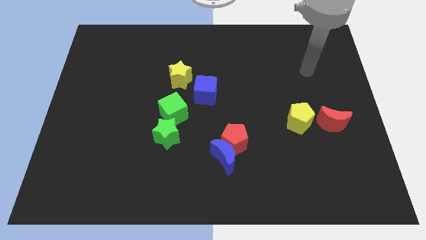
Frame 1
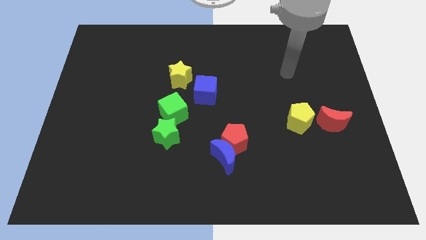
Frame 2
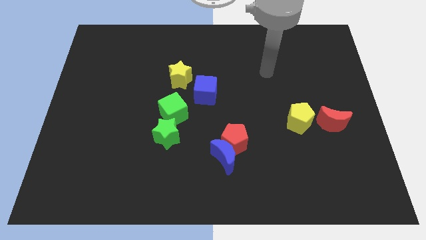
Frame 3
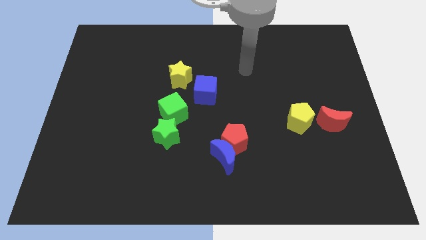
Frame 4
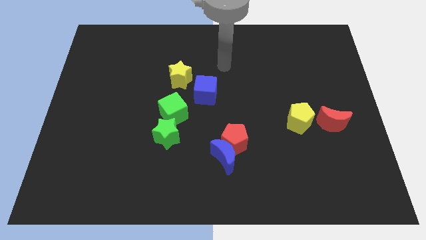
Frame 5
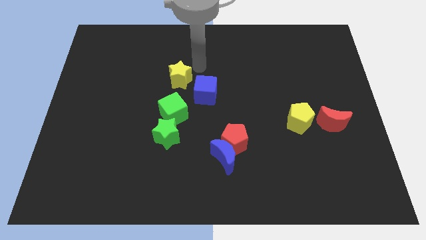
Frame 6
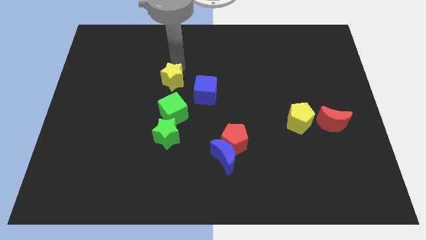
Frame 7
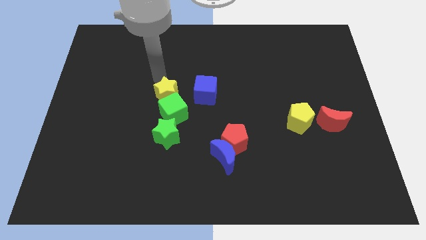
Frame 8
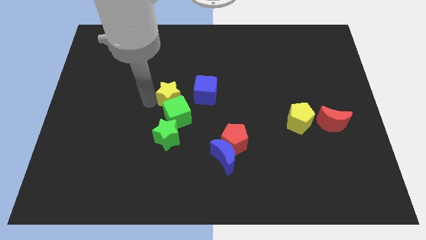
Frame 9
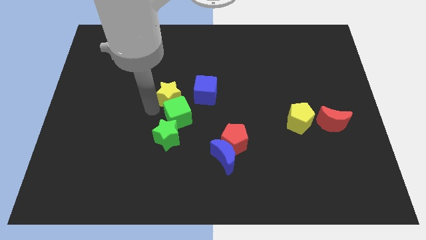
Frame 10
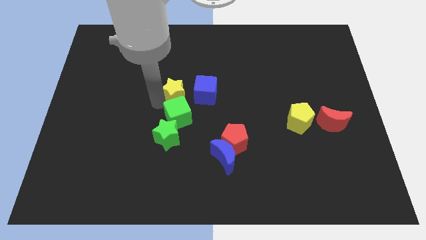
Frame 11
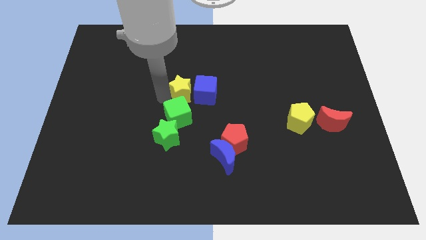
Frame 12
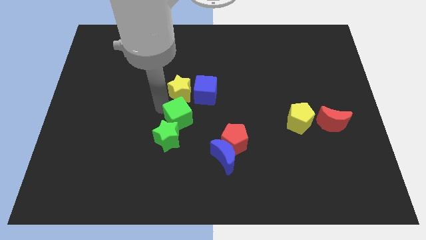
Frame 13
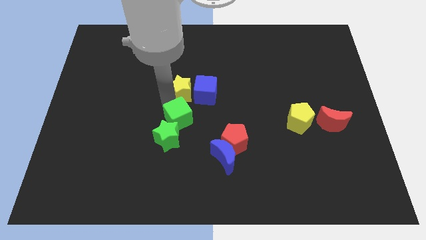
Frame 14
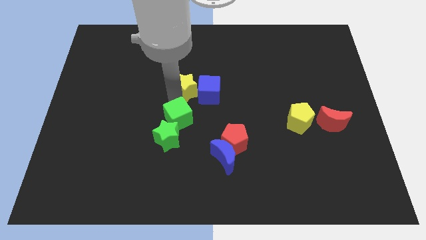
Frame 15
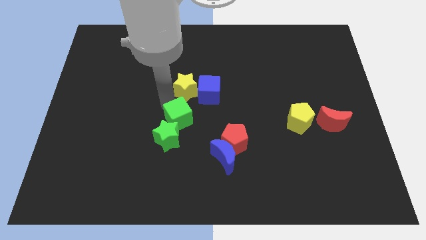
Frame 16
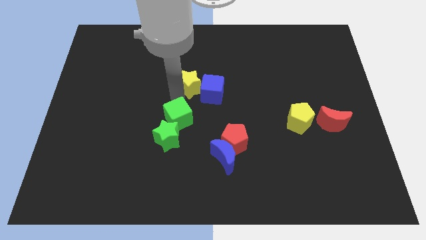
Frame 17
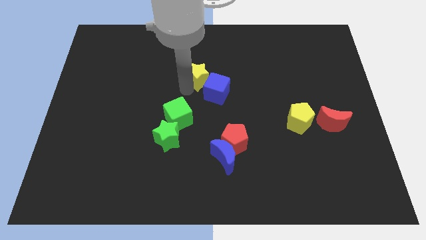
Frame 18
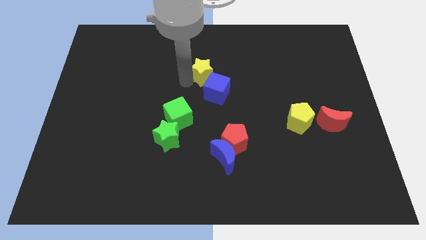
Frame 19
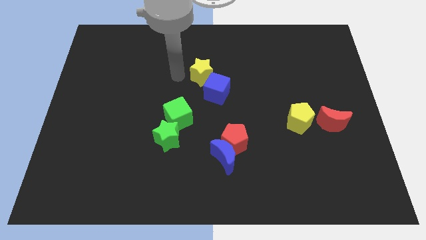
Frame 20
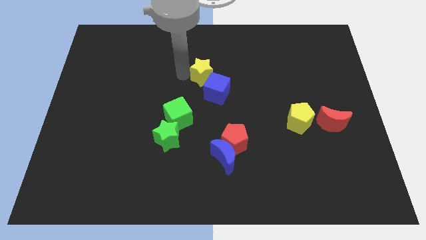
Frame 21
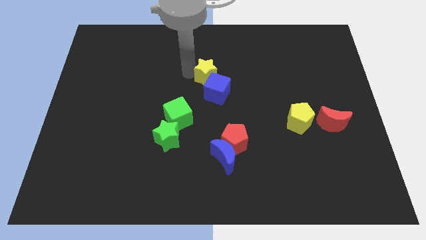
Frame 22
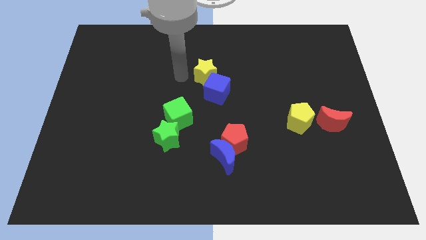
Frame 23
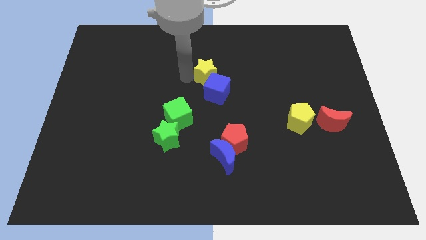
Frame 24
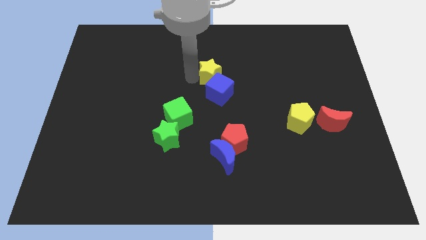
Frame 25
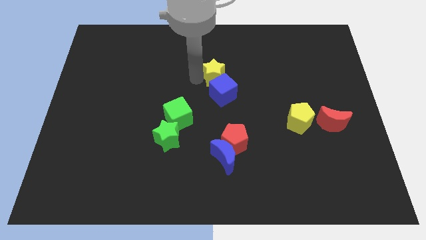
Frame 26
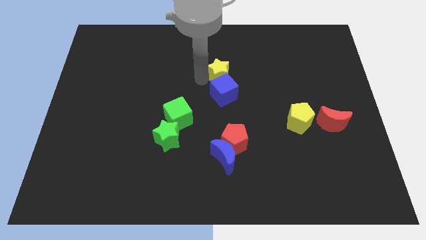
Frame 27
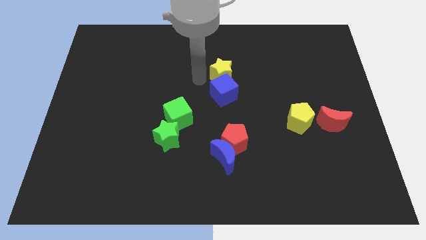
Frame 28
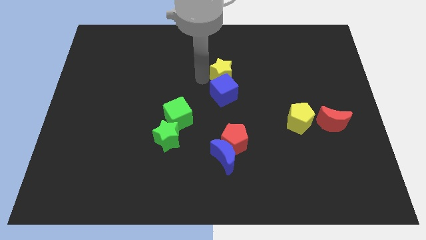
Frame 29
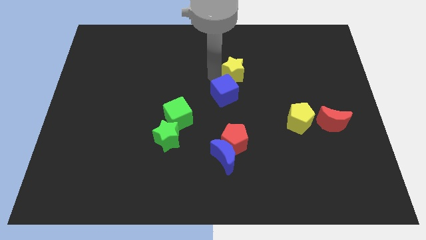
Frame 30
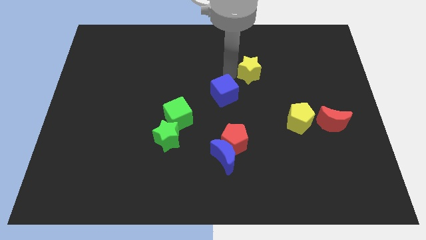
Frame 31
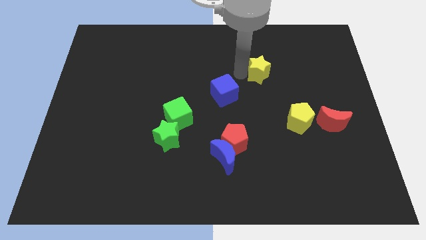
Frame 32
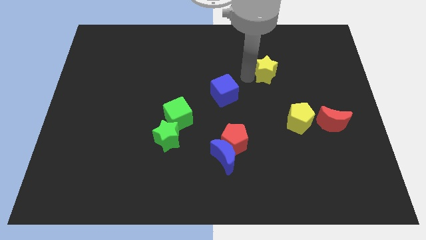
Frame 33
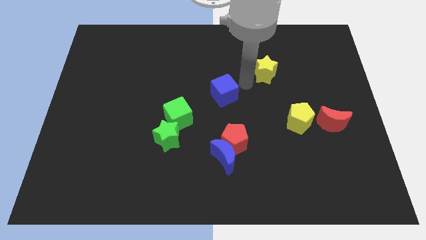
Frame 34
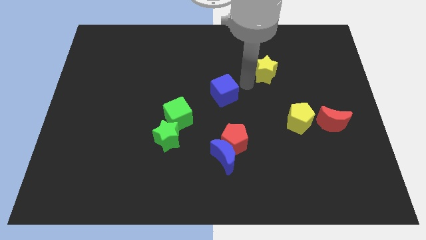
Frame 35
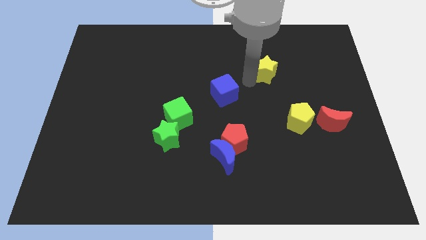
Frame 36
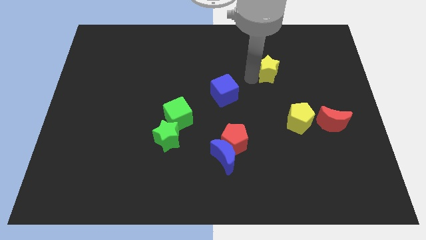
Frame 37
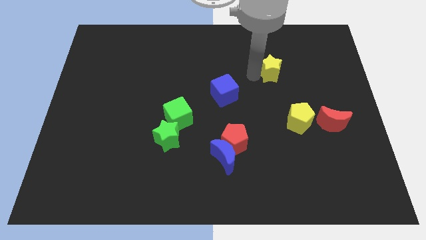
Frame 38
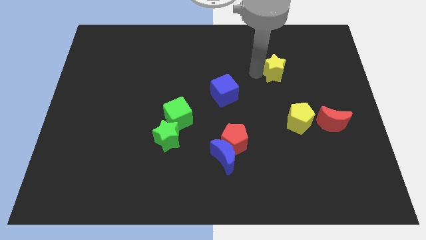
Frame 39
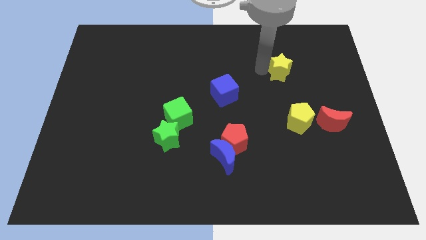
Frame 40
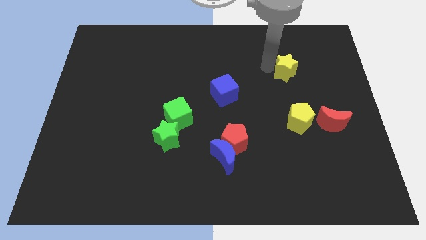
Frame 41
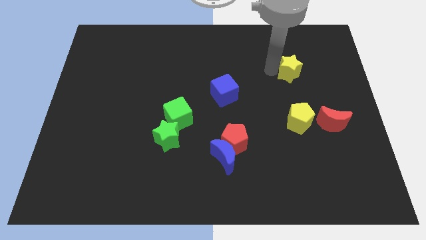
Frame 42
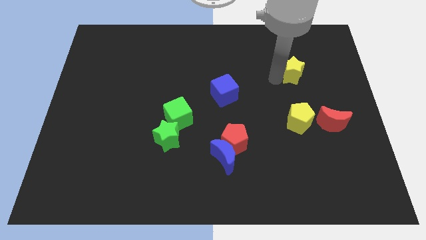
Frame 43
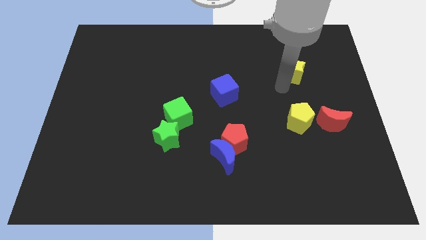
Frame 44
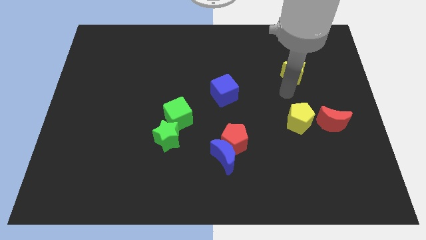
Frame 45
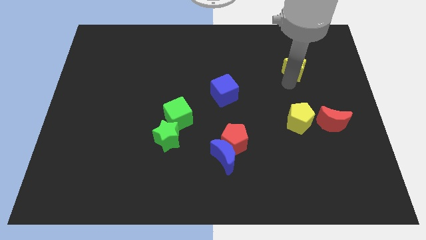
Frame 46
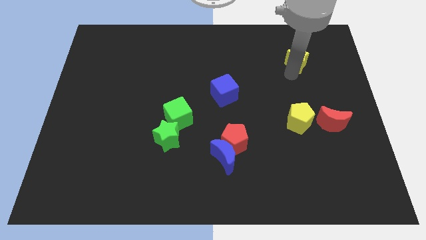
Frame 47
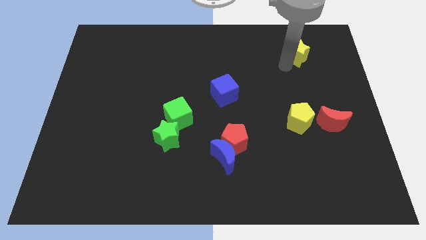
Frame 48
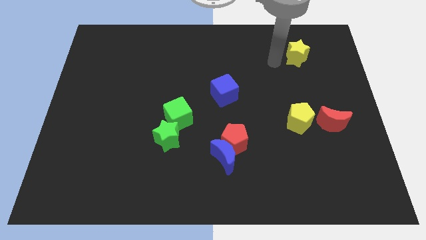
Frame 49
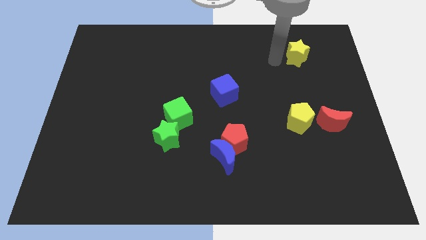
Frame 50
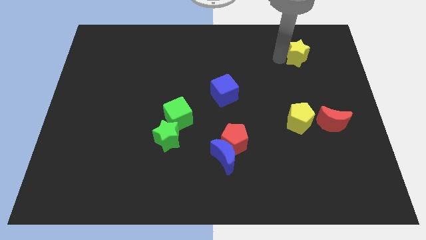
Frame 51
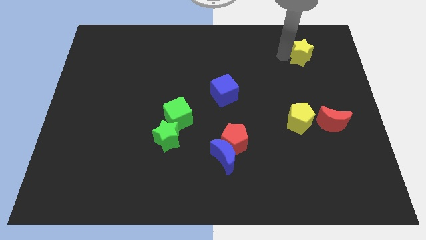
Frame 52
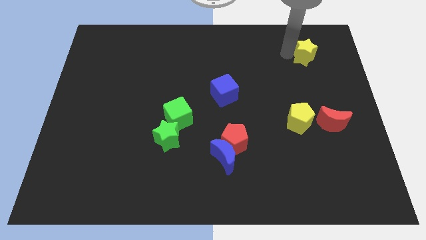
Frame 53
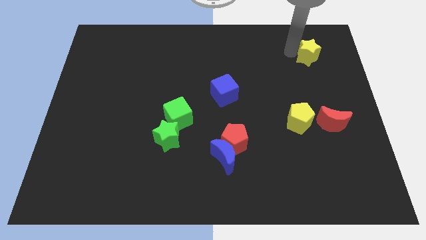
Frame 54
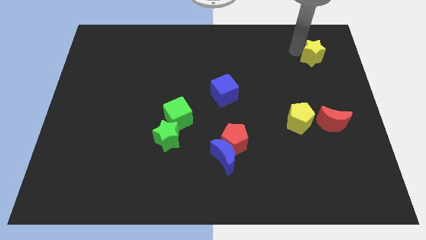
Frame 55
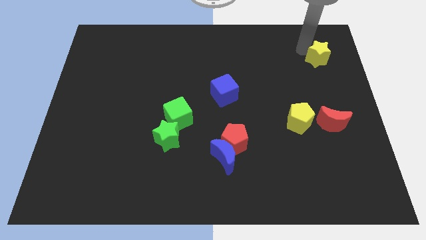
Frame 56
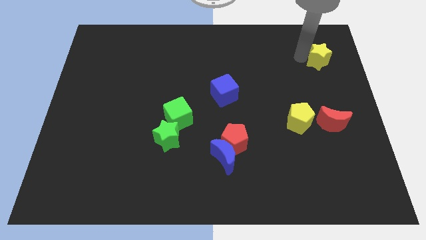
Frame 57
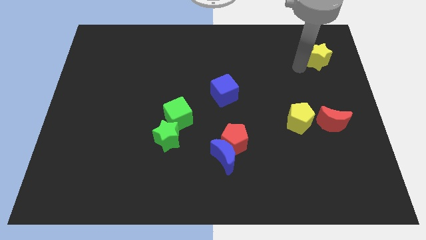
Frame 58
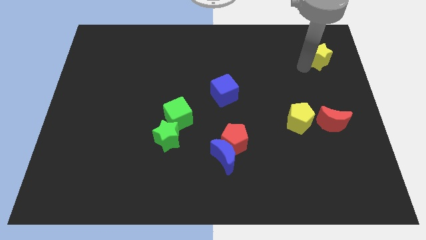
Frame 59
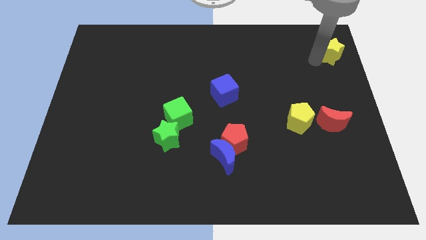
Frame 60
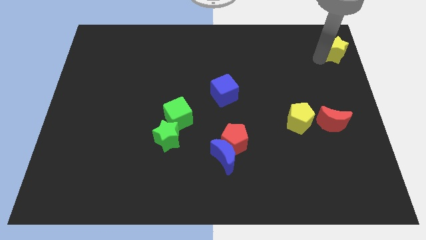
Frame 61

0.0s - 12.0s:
slide the yellow star to the upper right corner

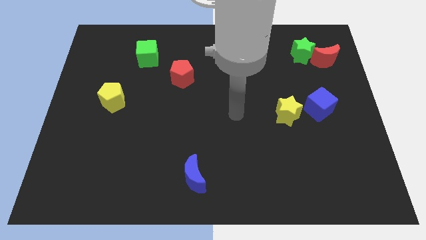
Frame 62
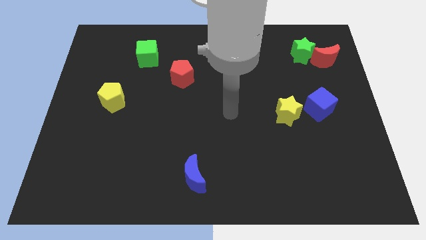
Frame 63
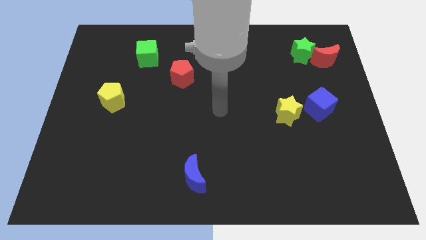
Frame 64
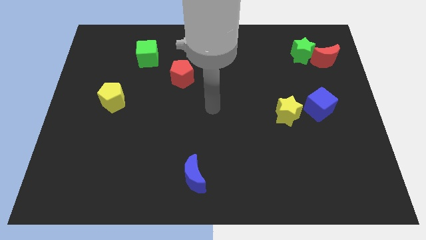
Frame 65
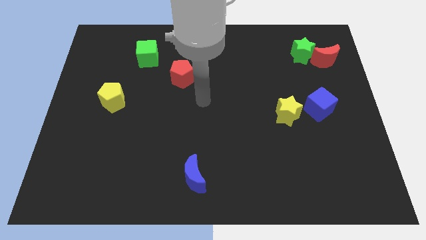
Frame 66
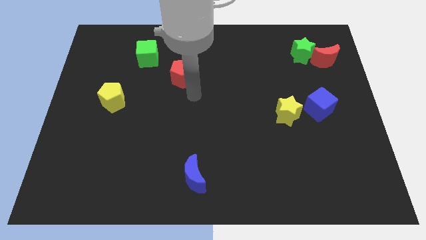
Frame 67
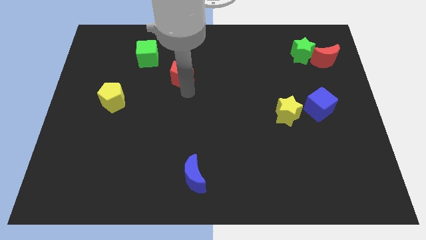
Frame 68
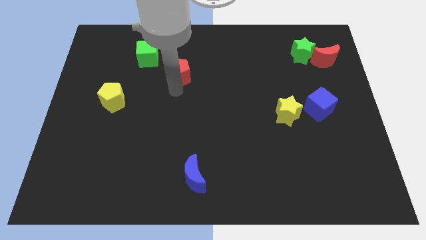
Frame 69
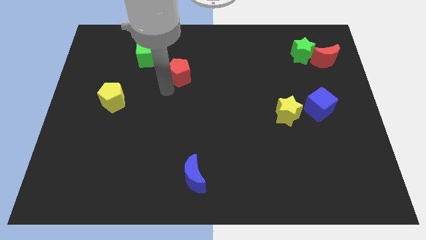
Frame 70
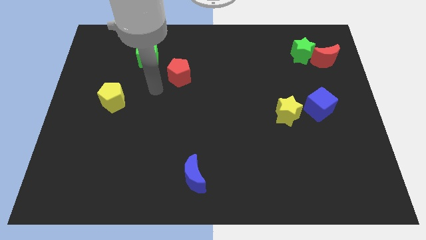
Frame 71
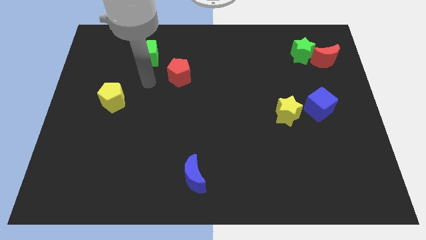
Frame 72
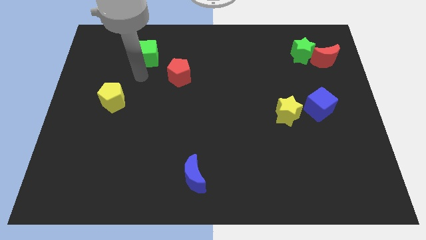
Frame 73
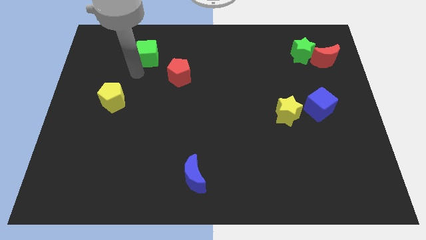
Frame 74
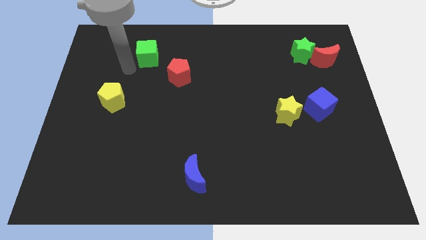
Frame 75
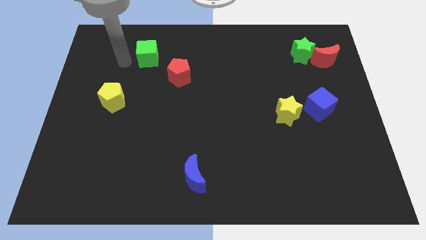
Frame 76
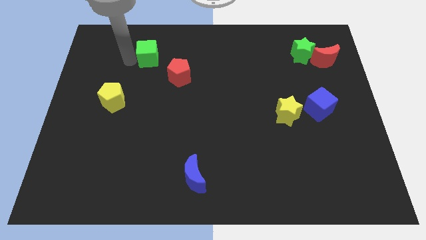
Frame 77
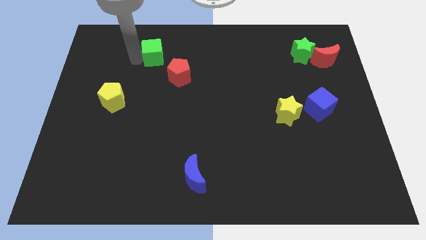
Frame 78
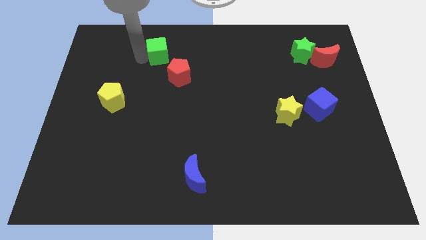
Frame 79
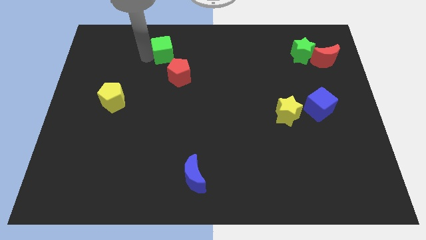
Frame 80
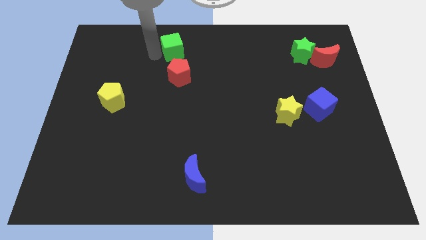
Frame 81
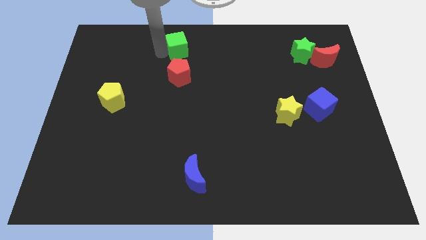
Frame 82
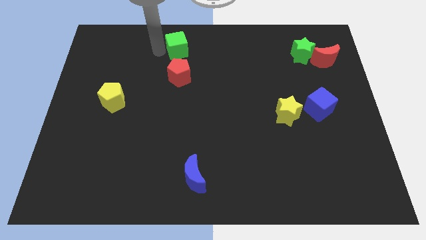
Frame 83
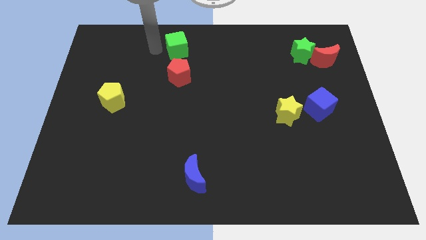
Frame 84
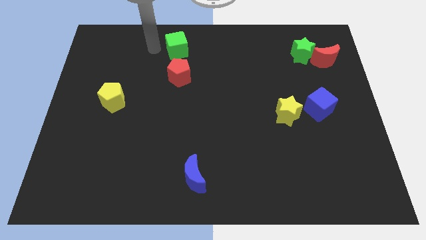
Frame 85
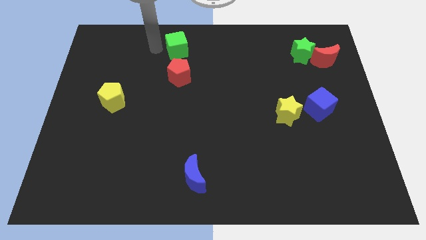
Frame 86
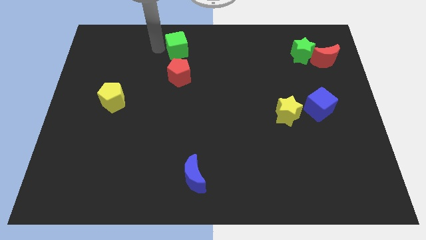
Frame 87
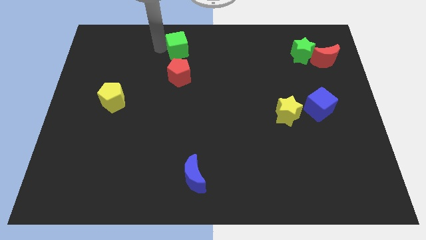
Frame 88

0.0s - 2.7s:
push the green cube to the top side
